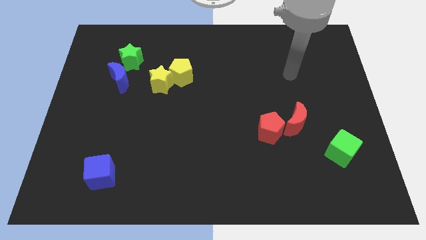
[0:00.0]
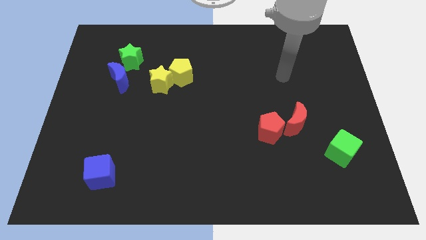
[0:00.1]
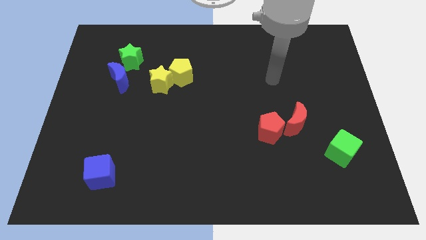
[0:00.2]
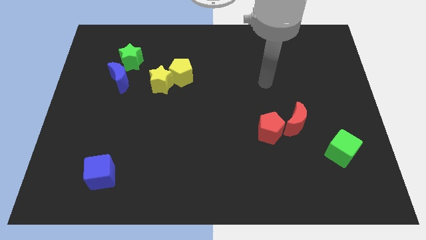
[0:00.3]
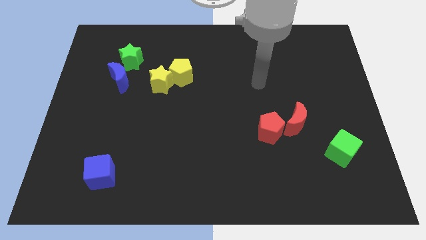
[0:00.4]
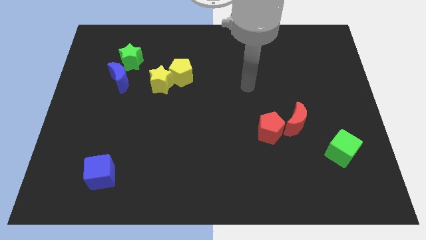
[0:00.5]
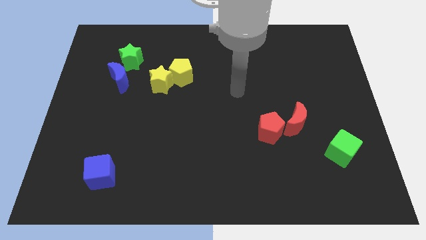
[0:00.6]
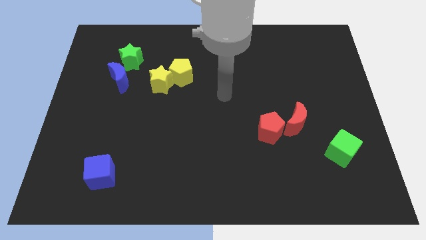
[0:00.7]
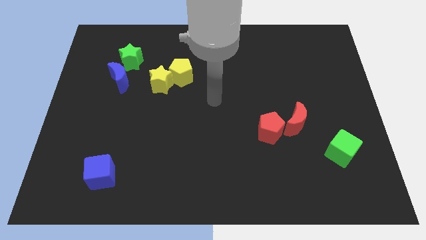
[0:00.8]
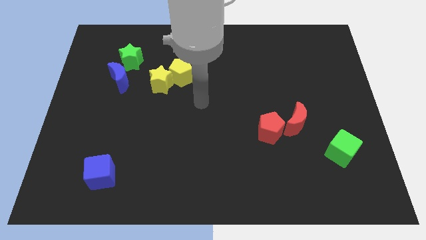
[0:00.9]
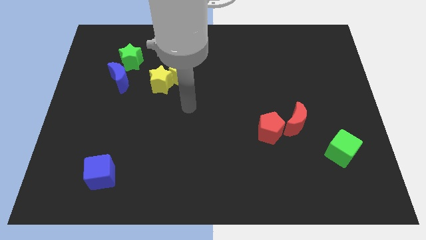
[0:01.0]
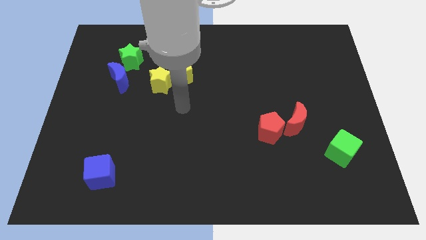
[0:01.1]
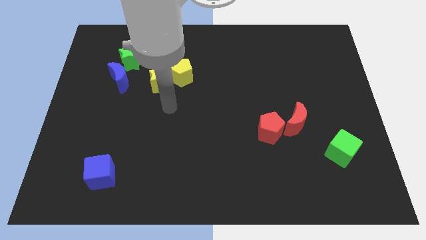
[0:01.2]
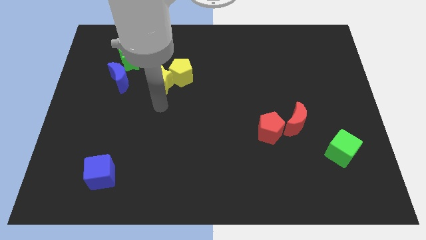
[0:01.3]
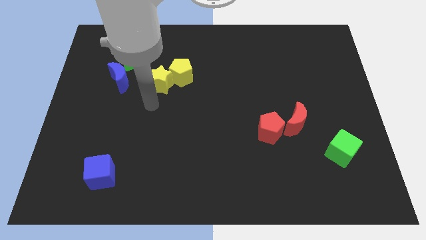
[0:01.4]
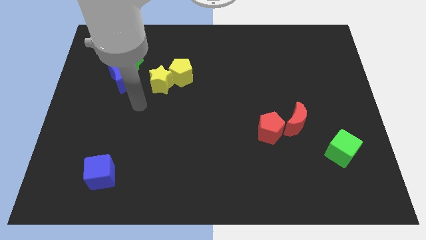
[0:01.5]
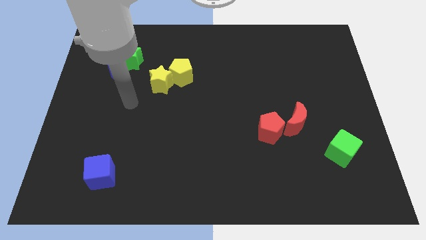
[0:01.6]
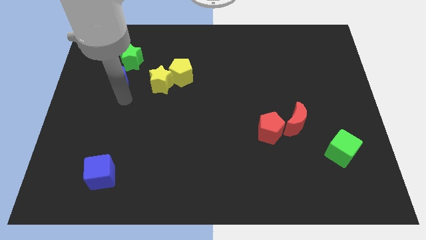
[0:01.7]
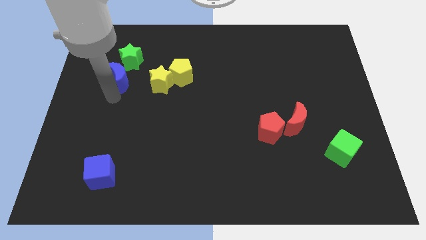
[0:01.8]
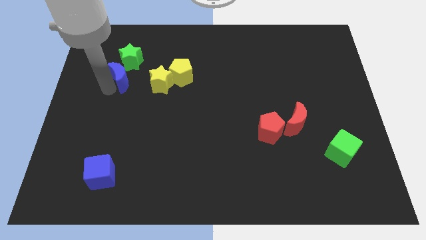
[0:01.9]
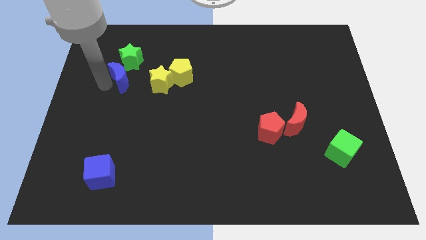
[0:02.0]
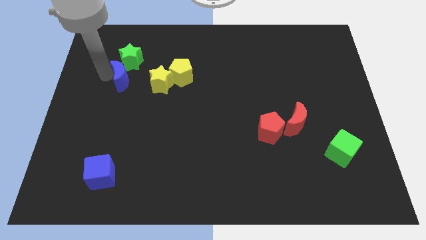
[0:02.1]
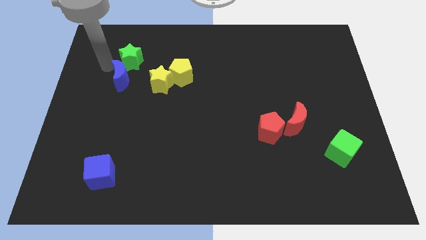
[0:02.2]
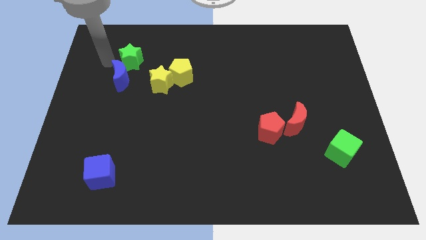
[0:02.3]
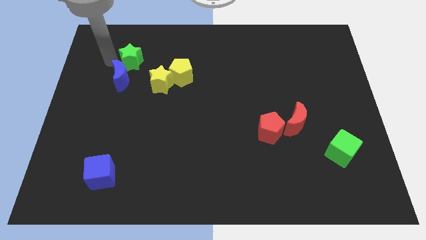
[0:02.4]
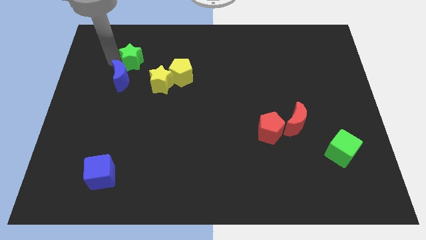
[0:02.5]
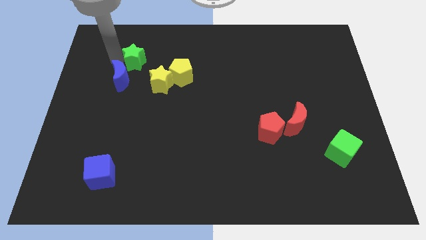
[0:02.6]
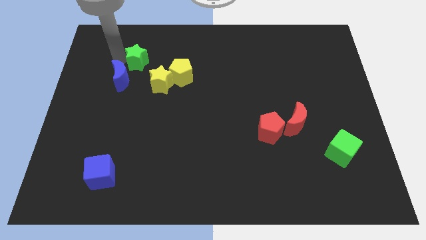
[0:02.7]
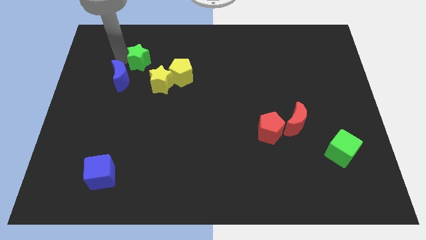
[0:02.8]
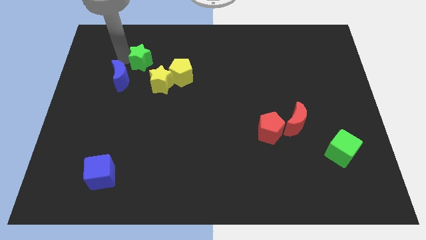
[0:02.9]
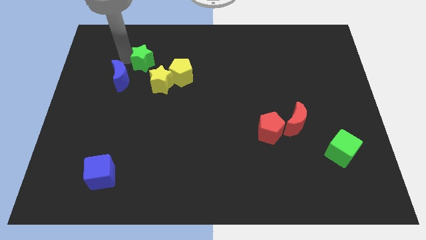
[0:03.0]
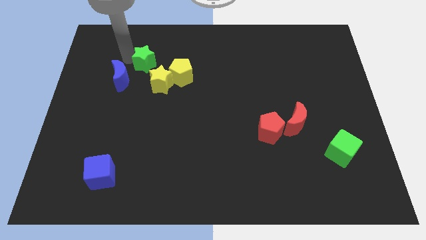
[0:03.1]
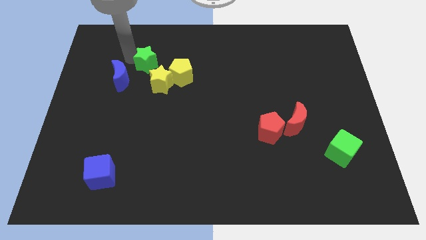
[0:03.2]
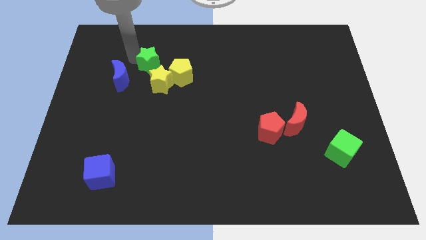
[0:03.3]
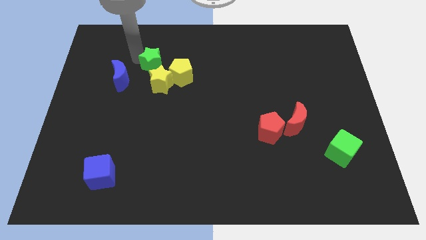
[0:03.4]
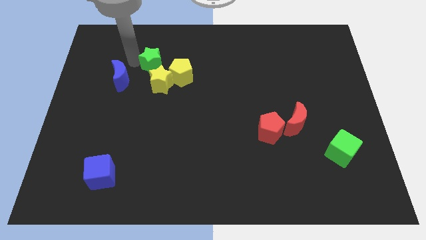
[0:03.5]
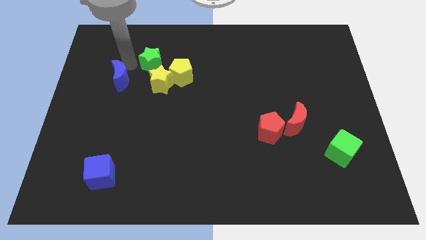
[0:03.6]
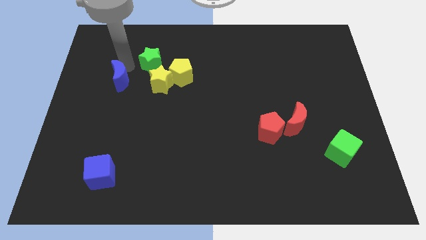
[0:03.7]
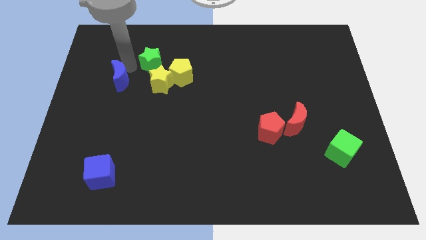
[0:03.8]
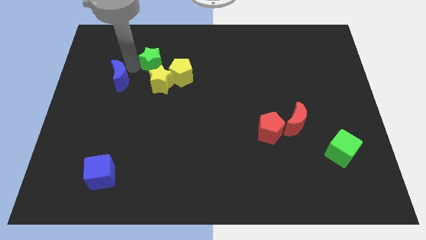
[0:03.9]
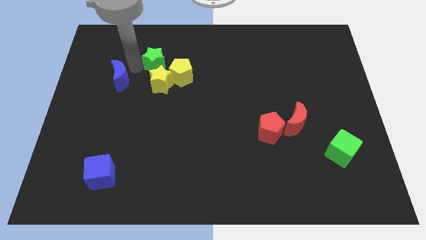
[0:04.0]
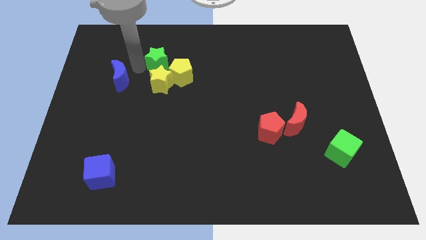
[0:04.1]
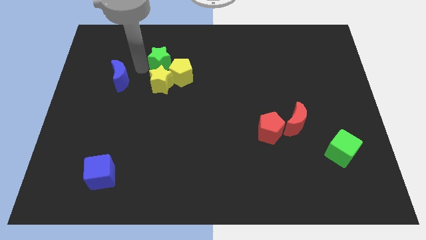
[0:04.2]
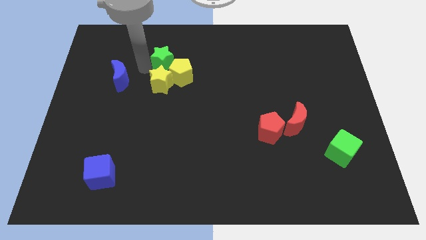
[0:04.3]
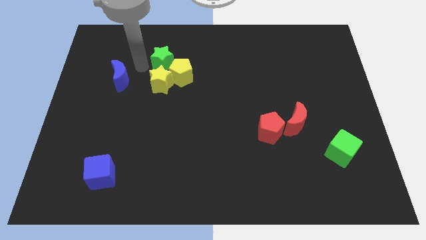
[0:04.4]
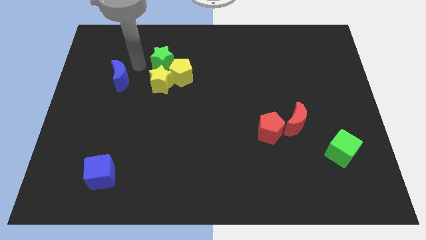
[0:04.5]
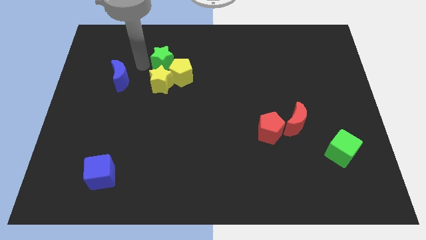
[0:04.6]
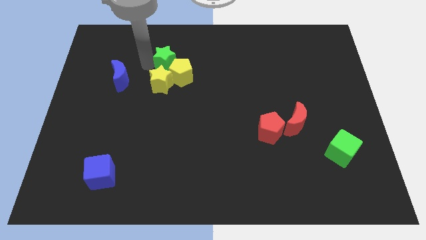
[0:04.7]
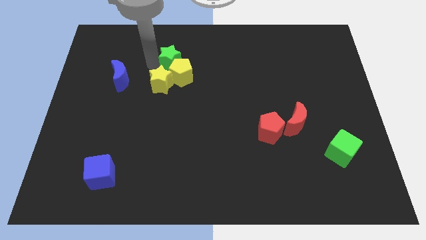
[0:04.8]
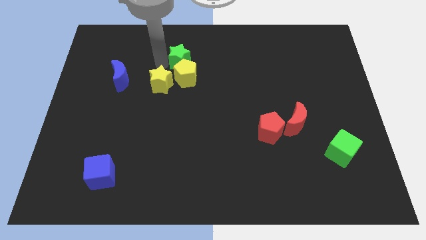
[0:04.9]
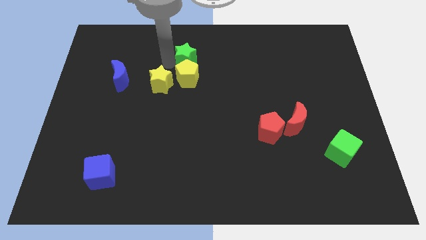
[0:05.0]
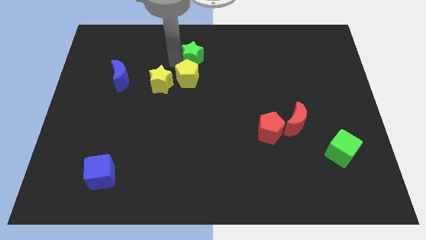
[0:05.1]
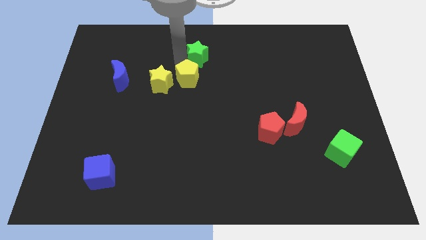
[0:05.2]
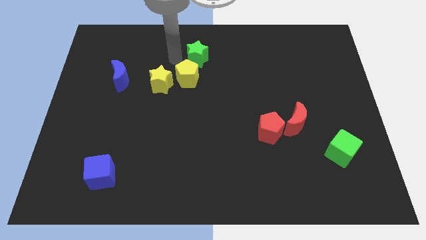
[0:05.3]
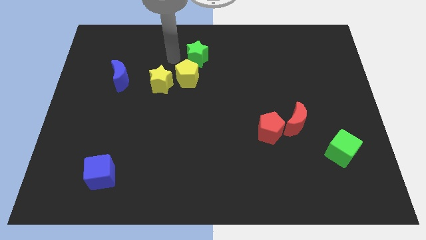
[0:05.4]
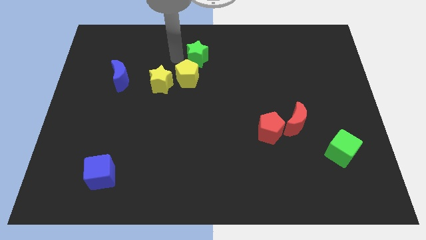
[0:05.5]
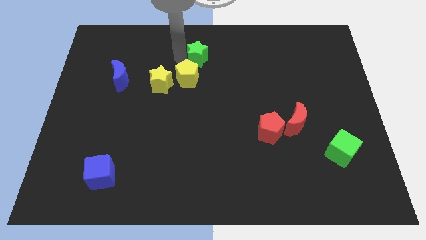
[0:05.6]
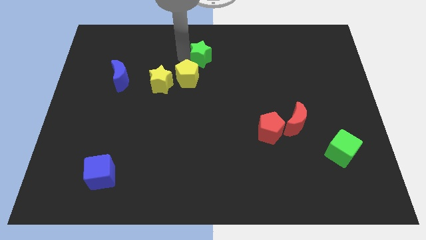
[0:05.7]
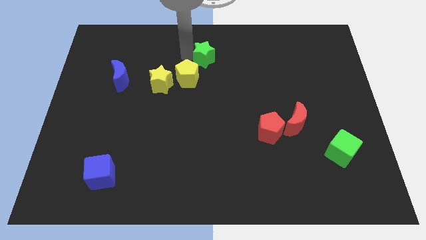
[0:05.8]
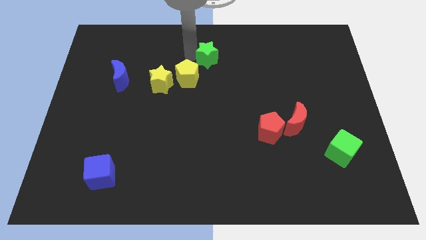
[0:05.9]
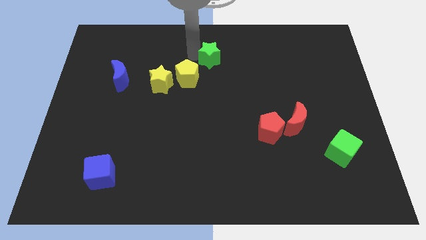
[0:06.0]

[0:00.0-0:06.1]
move the green star to the right

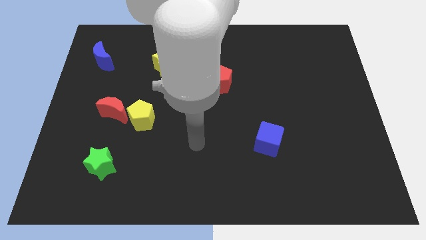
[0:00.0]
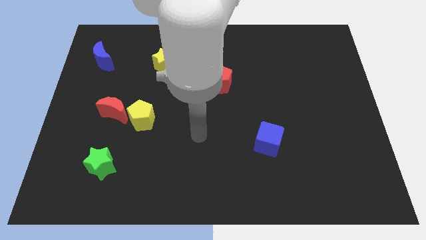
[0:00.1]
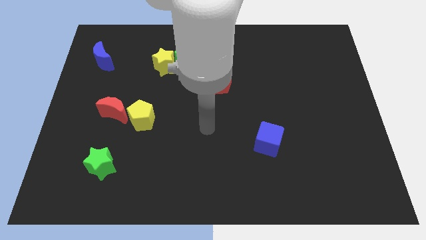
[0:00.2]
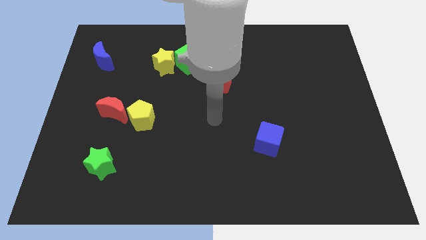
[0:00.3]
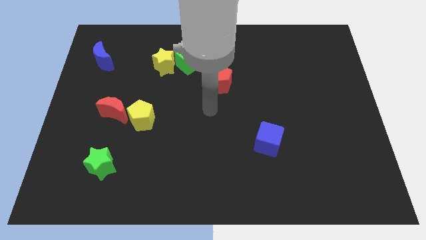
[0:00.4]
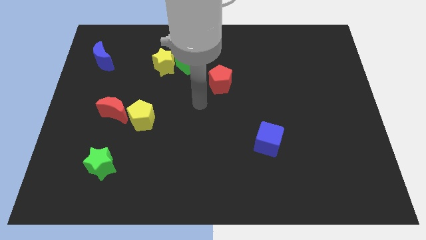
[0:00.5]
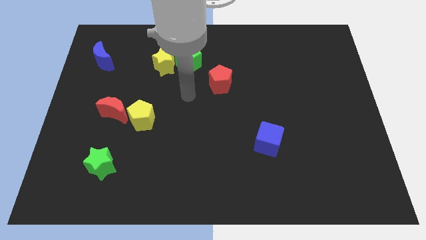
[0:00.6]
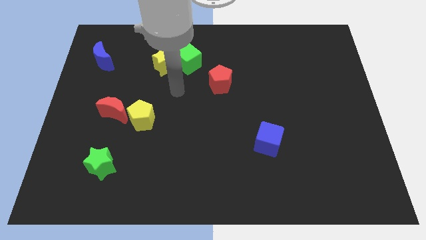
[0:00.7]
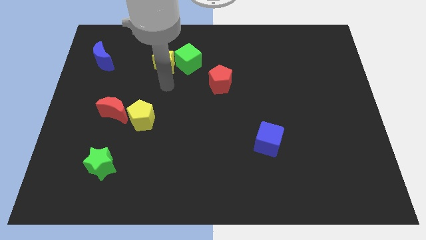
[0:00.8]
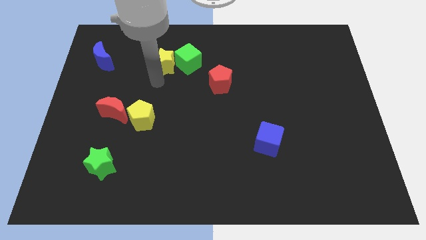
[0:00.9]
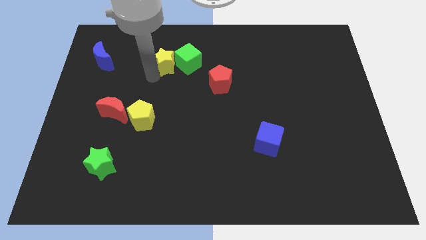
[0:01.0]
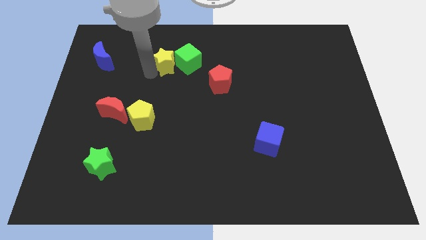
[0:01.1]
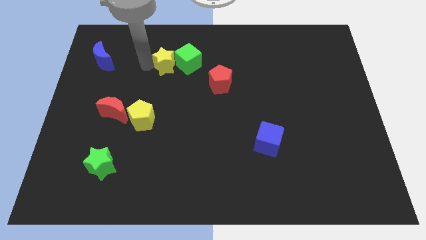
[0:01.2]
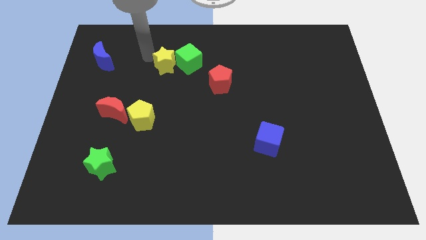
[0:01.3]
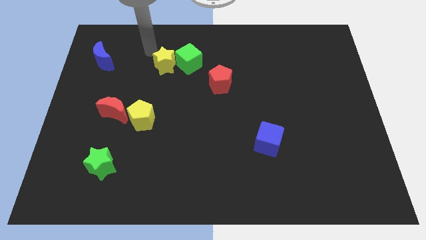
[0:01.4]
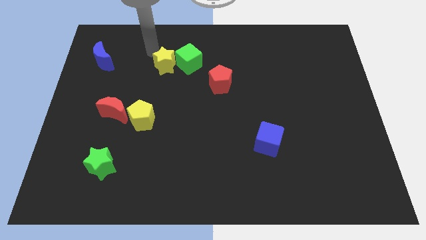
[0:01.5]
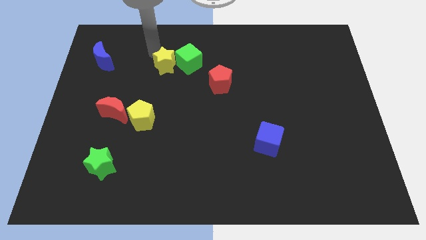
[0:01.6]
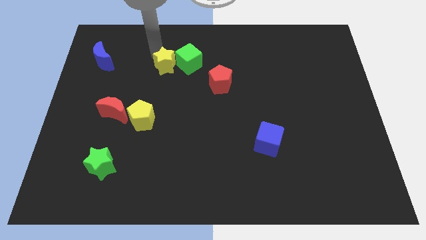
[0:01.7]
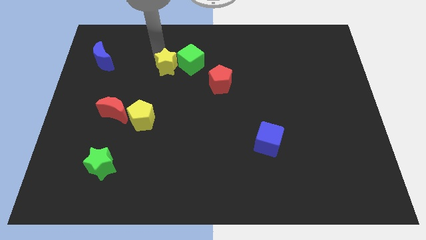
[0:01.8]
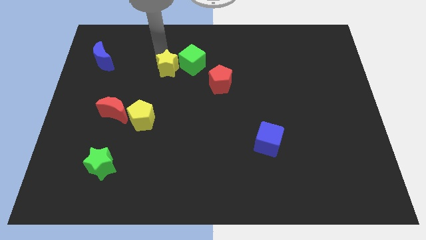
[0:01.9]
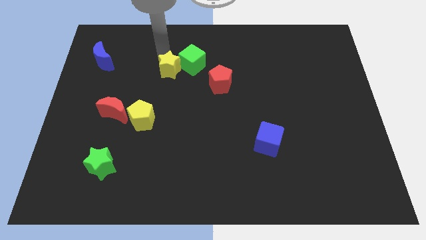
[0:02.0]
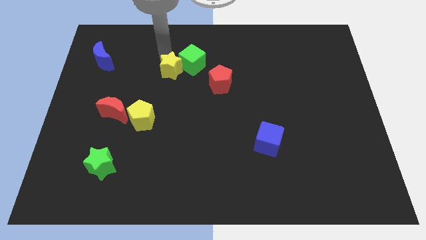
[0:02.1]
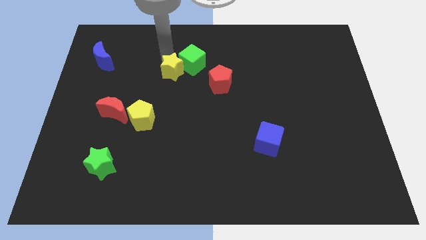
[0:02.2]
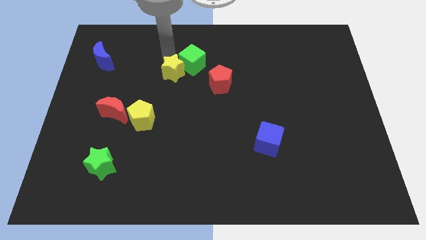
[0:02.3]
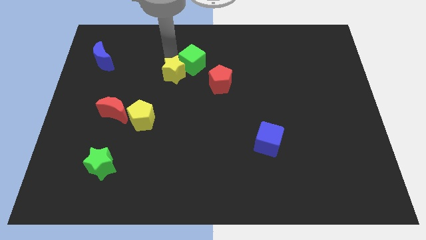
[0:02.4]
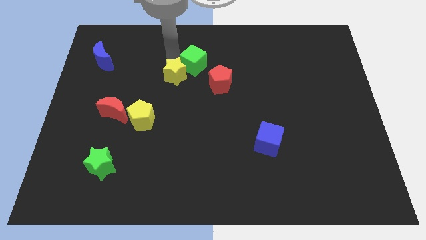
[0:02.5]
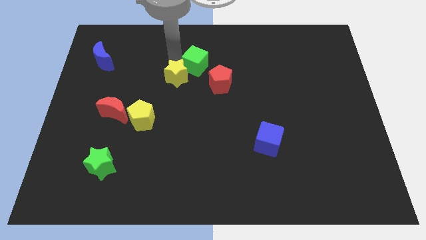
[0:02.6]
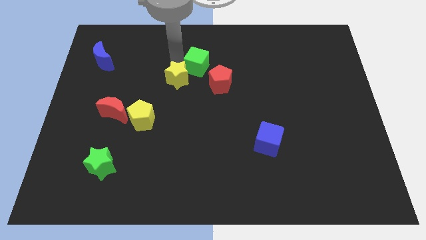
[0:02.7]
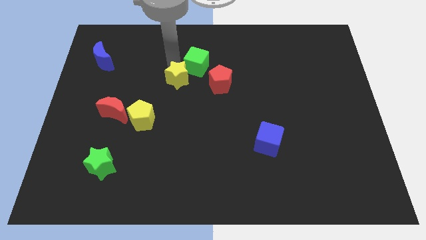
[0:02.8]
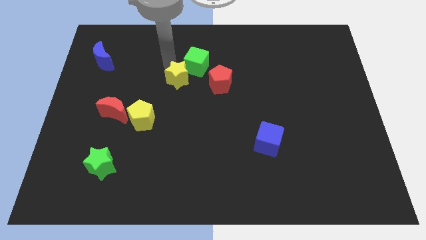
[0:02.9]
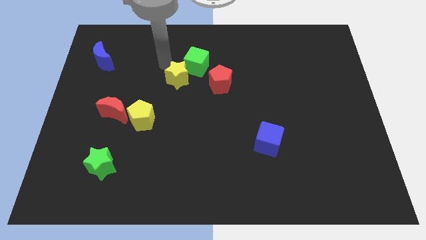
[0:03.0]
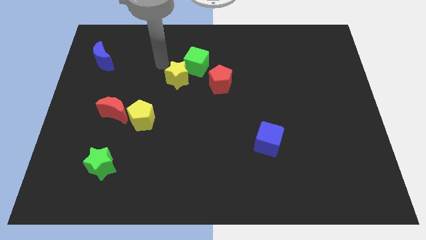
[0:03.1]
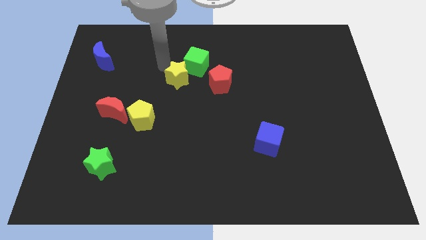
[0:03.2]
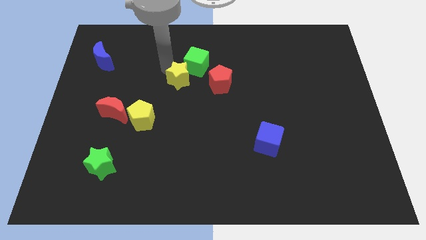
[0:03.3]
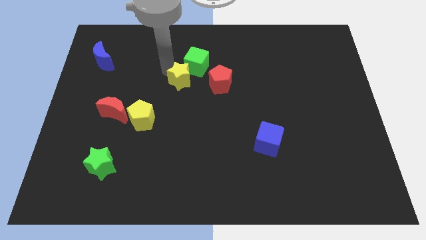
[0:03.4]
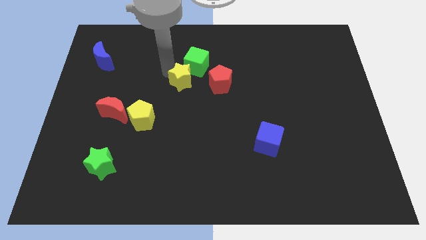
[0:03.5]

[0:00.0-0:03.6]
slightly slide the yellow star down and to the right
